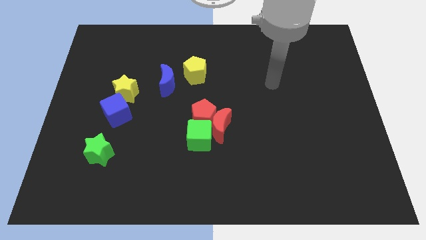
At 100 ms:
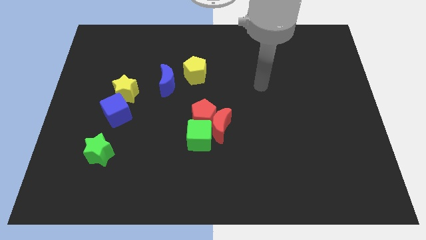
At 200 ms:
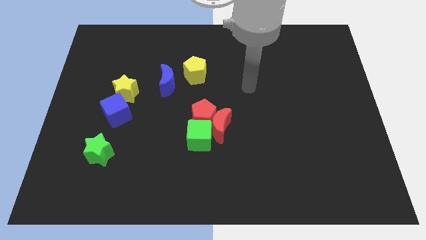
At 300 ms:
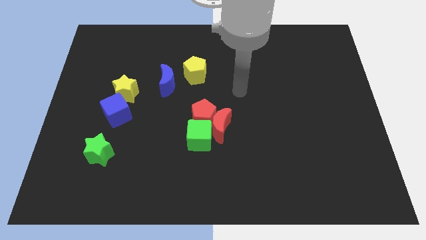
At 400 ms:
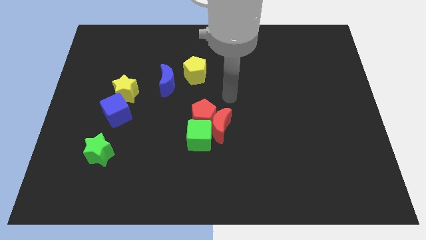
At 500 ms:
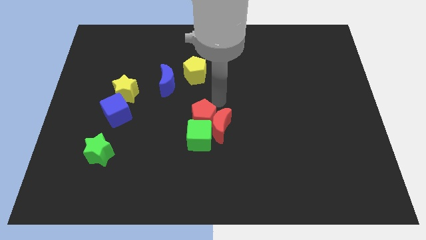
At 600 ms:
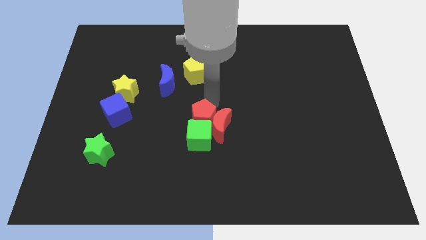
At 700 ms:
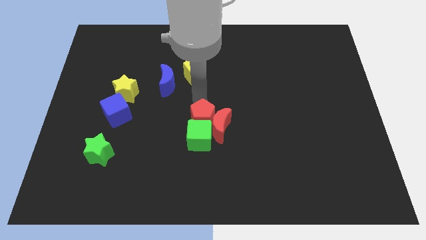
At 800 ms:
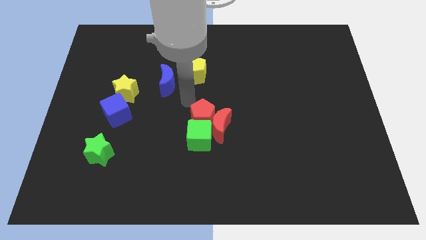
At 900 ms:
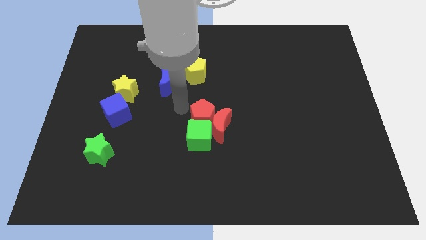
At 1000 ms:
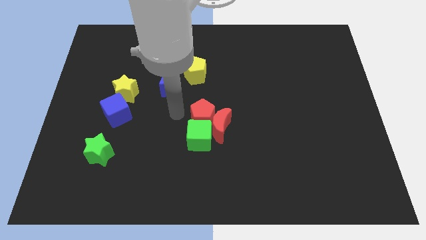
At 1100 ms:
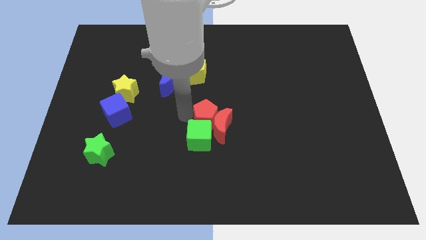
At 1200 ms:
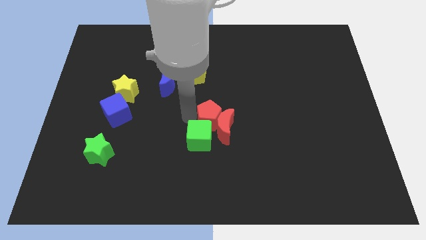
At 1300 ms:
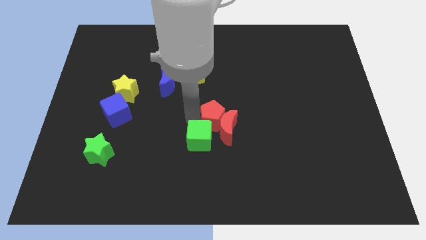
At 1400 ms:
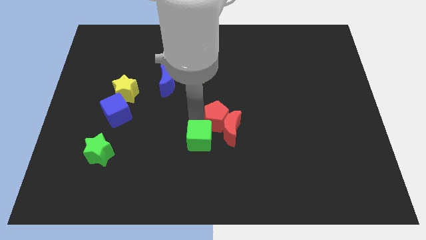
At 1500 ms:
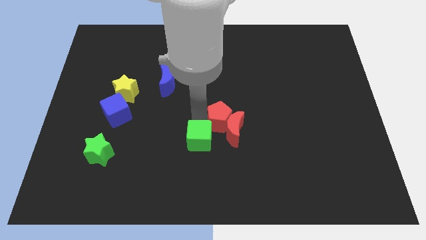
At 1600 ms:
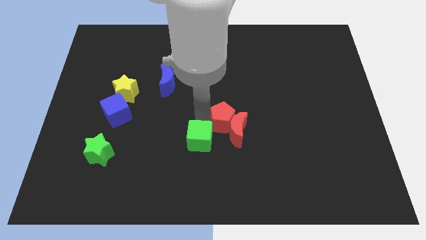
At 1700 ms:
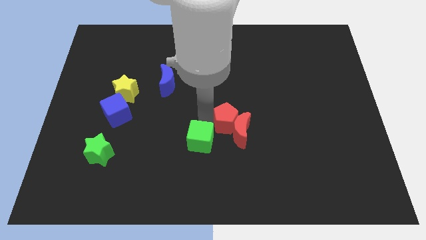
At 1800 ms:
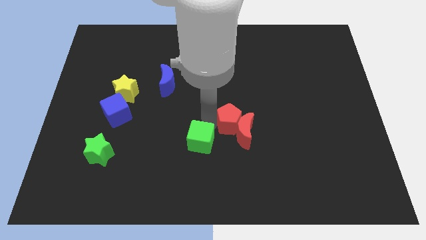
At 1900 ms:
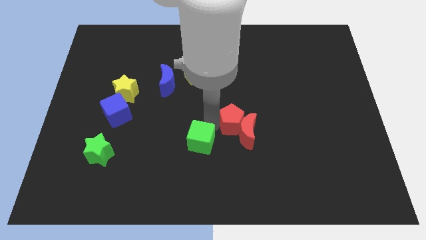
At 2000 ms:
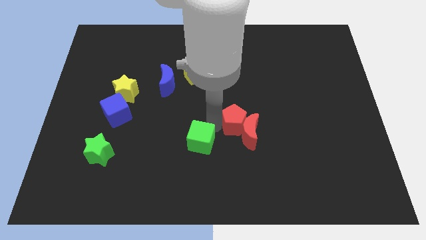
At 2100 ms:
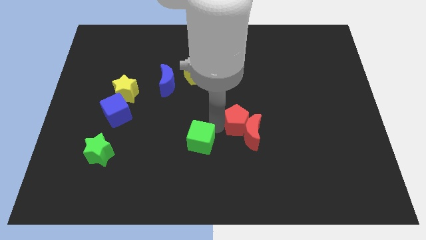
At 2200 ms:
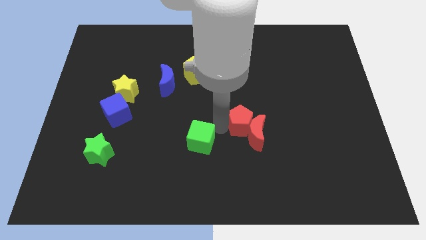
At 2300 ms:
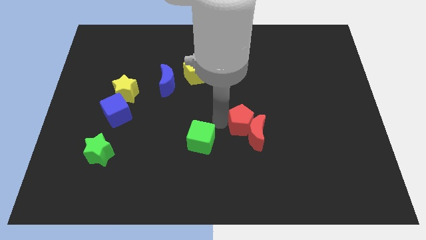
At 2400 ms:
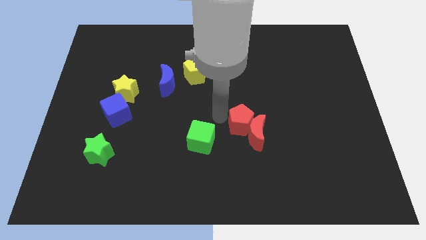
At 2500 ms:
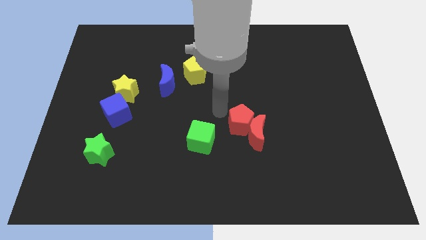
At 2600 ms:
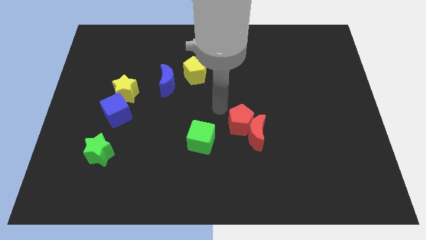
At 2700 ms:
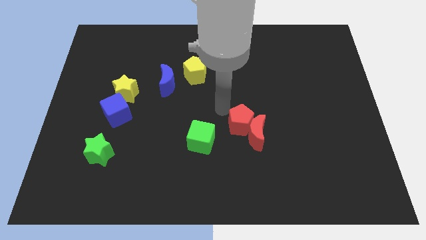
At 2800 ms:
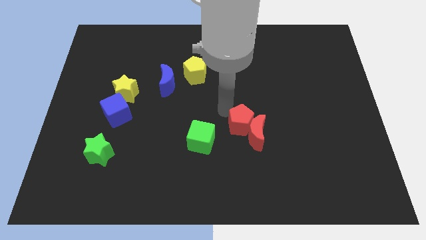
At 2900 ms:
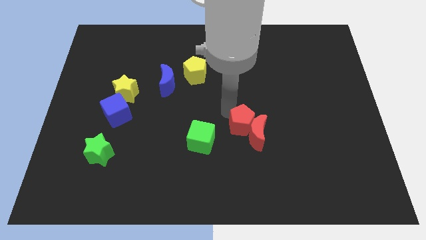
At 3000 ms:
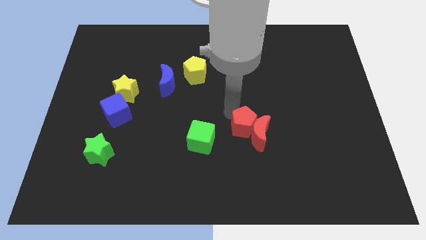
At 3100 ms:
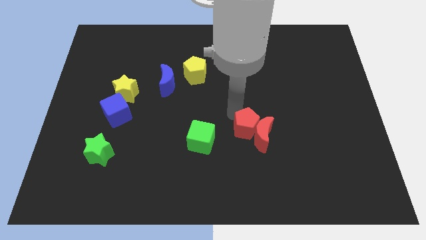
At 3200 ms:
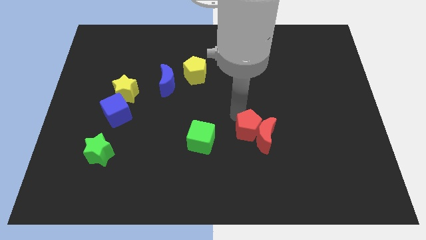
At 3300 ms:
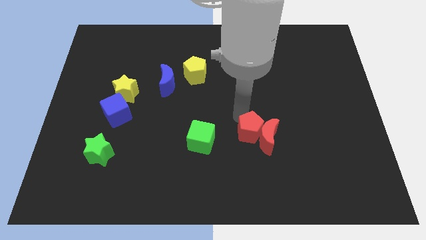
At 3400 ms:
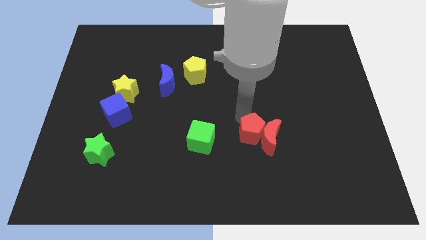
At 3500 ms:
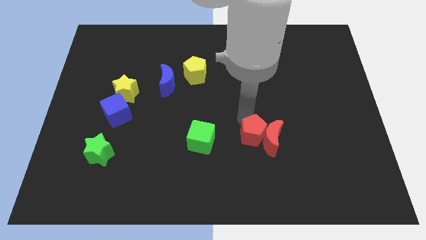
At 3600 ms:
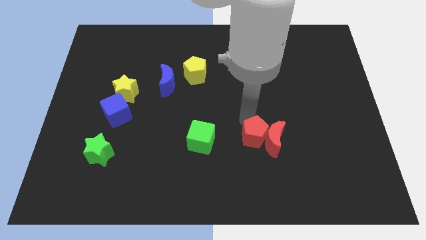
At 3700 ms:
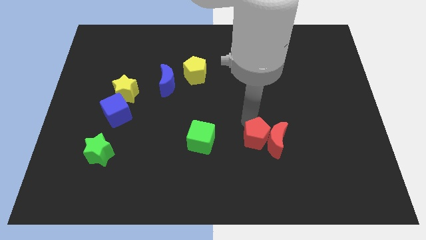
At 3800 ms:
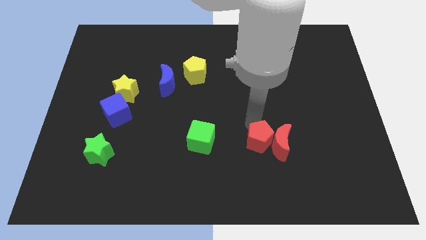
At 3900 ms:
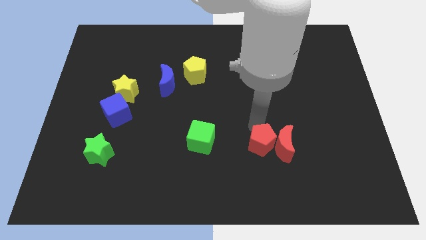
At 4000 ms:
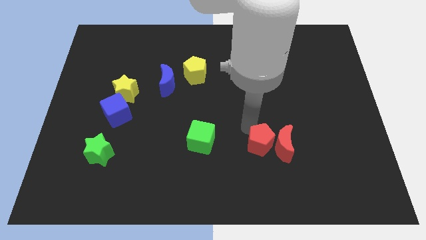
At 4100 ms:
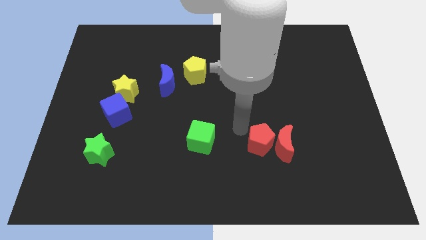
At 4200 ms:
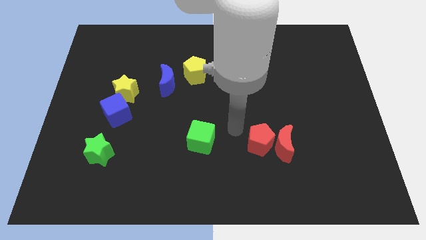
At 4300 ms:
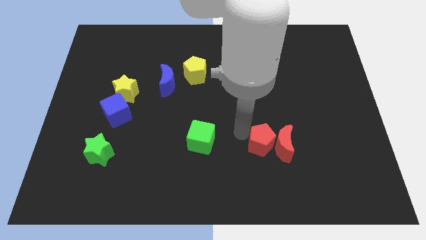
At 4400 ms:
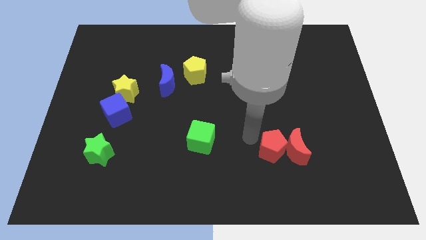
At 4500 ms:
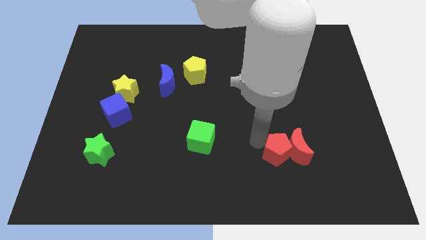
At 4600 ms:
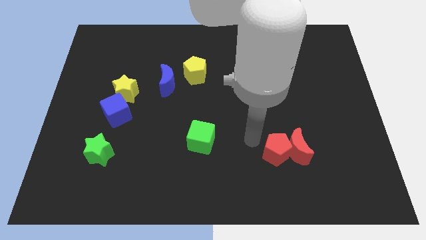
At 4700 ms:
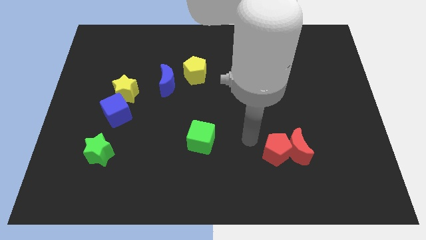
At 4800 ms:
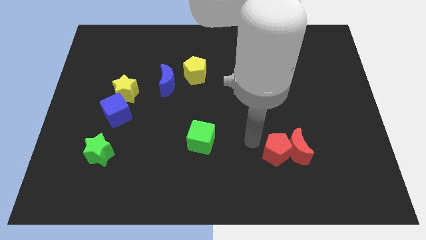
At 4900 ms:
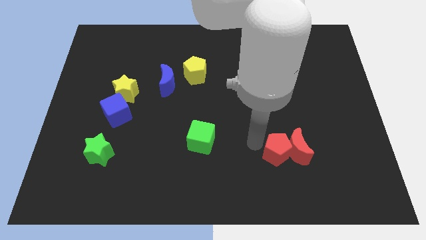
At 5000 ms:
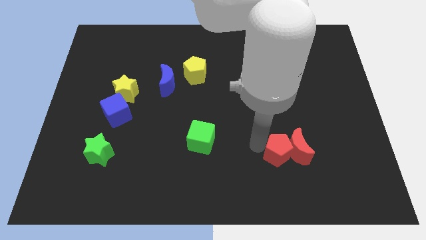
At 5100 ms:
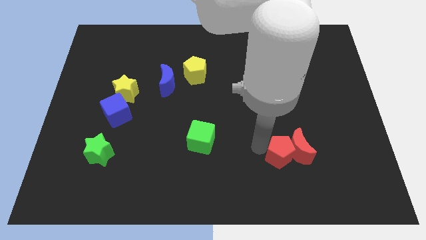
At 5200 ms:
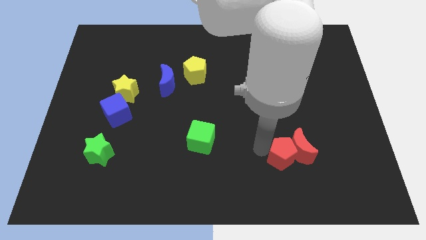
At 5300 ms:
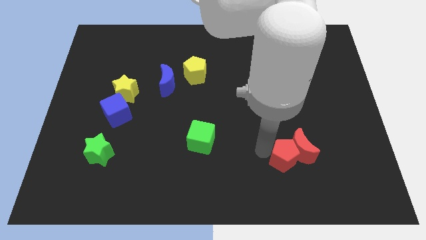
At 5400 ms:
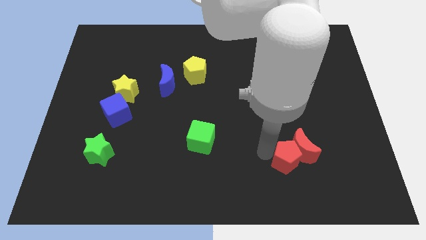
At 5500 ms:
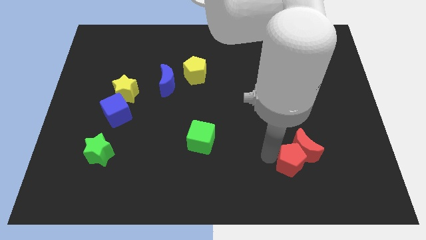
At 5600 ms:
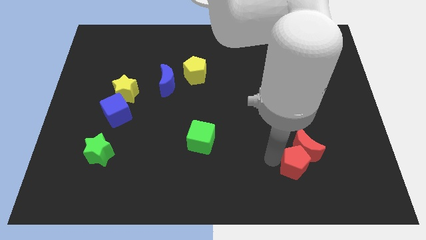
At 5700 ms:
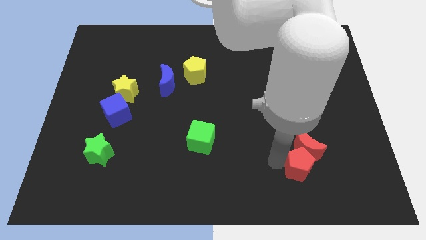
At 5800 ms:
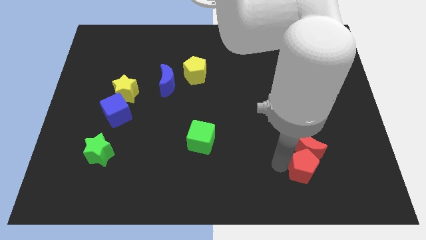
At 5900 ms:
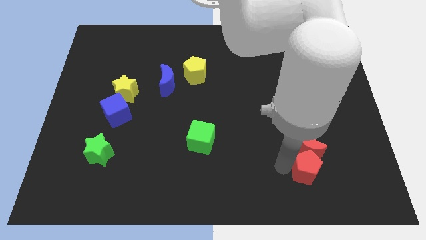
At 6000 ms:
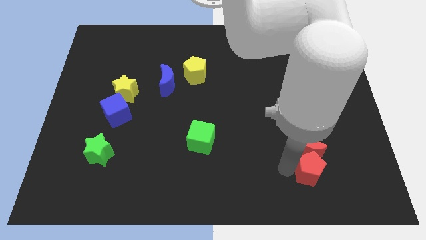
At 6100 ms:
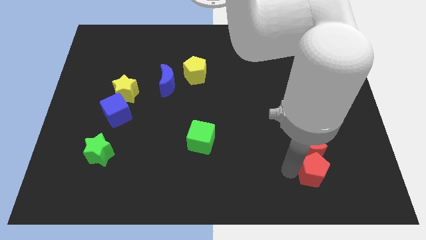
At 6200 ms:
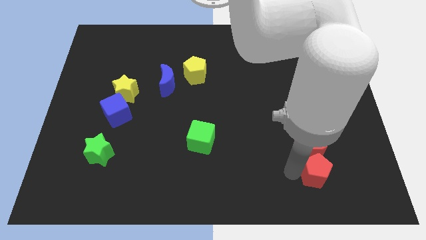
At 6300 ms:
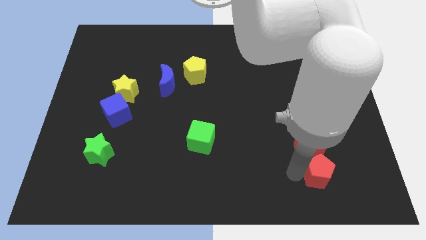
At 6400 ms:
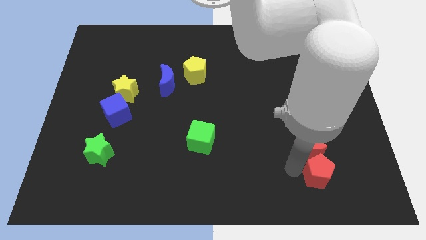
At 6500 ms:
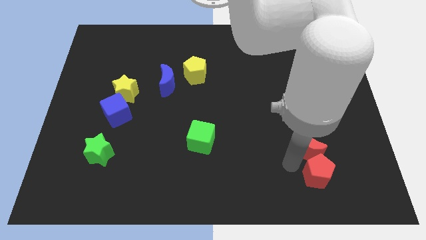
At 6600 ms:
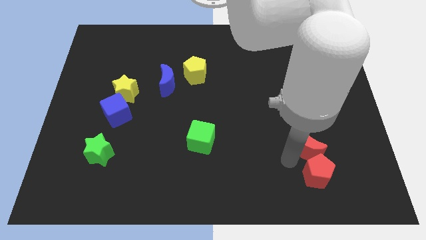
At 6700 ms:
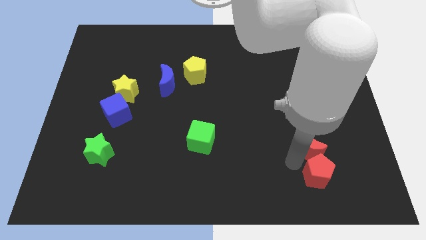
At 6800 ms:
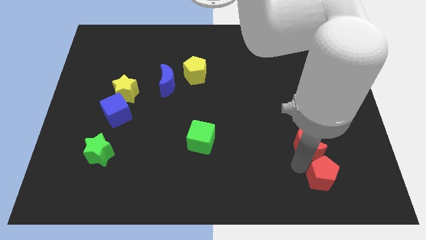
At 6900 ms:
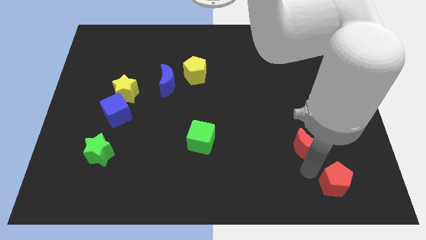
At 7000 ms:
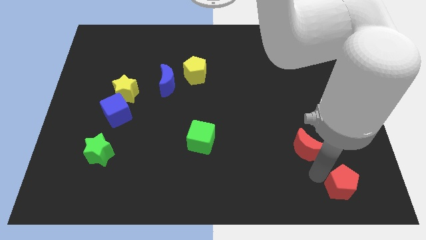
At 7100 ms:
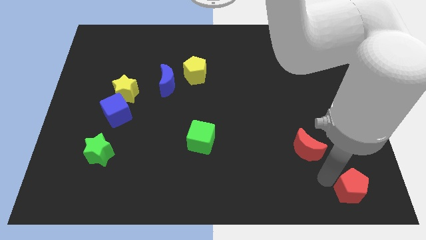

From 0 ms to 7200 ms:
slide the red pentagon to the bottom right

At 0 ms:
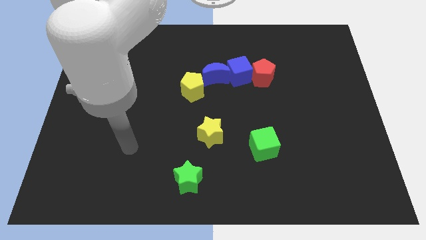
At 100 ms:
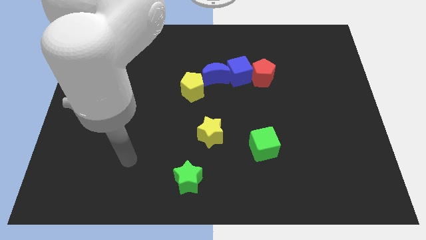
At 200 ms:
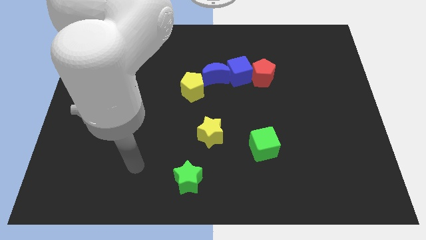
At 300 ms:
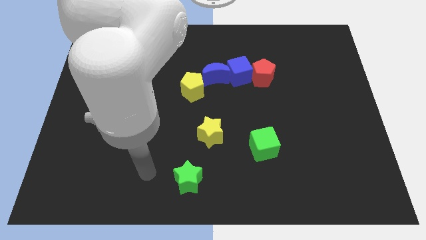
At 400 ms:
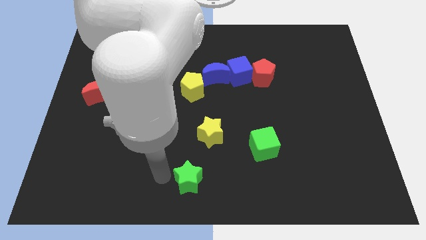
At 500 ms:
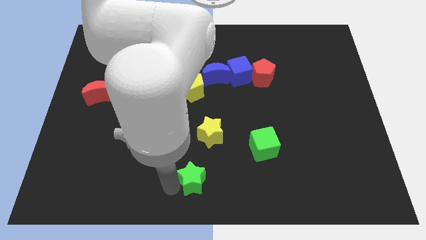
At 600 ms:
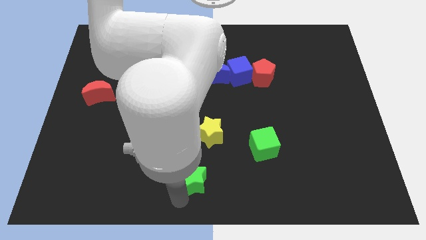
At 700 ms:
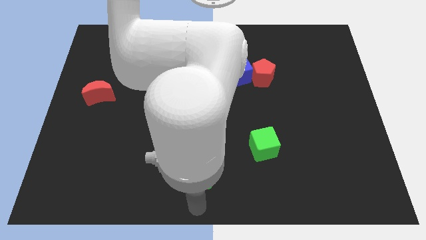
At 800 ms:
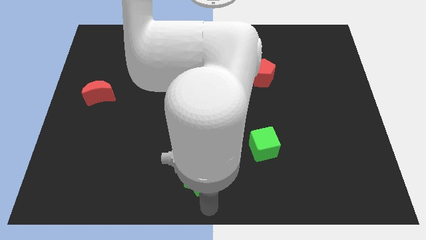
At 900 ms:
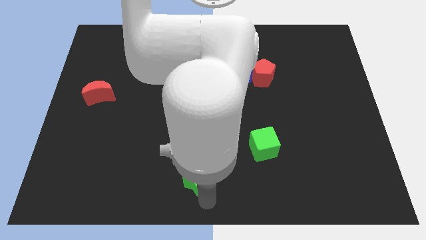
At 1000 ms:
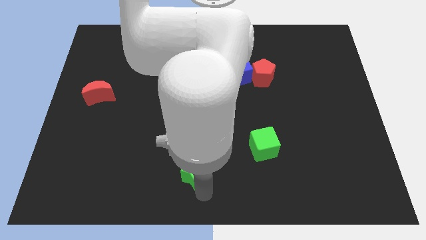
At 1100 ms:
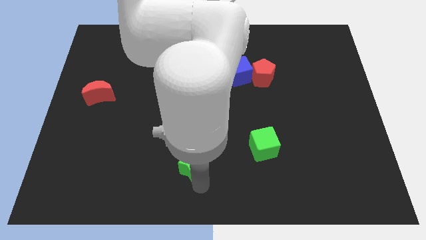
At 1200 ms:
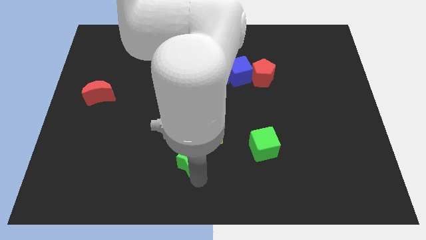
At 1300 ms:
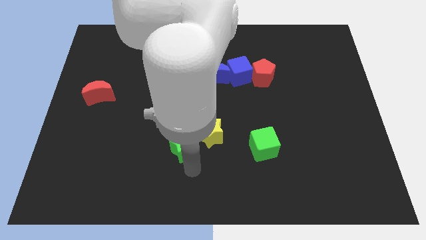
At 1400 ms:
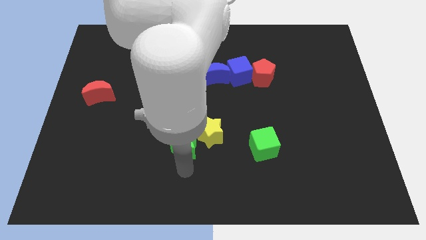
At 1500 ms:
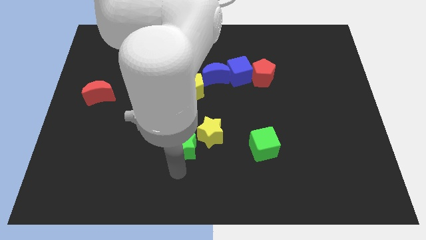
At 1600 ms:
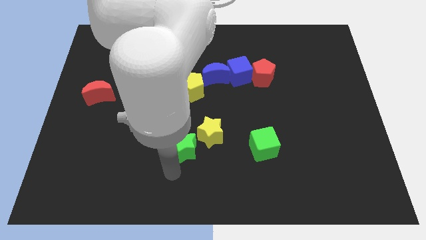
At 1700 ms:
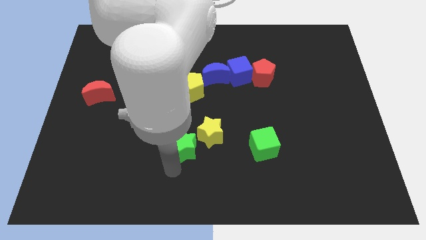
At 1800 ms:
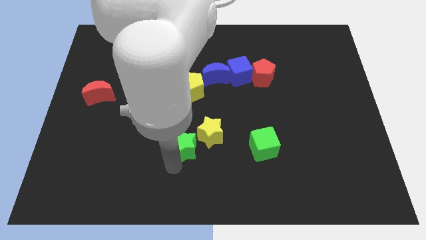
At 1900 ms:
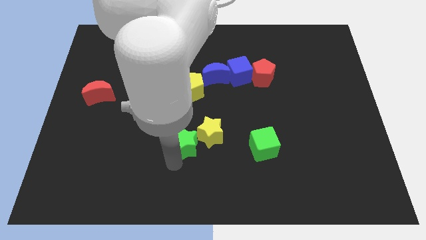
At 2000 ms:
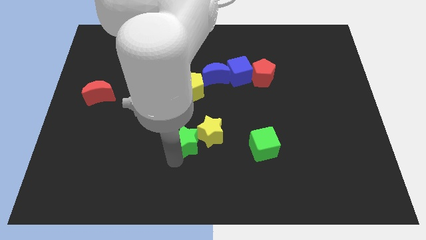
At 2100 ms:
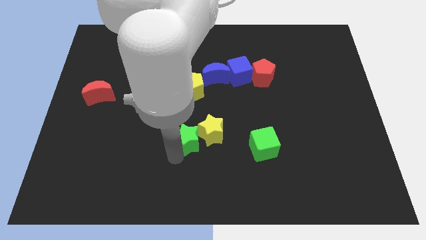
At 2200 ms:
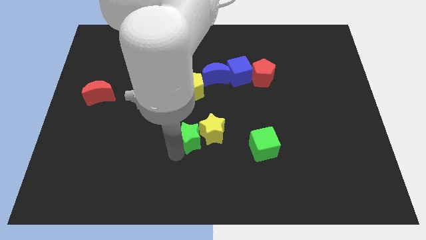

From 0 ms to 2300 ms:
move the green star to the middle
